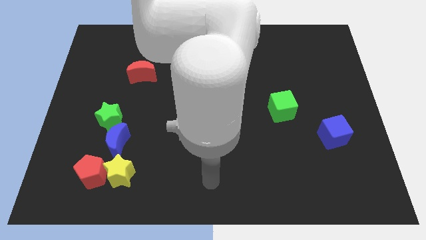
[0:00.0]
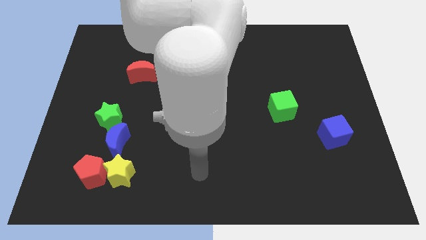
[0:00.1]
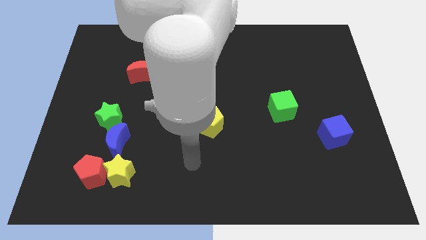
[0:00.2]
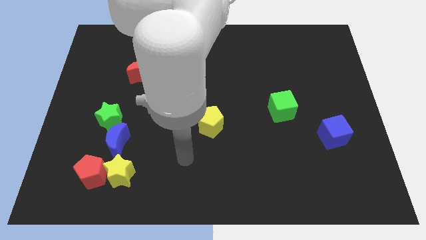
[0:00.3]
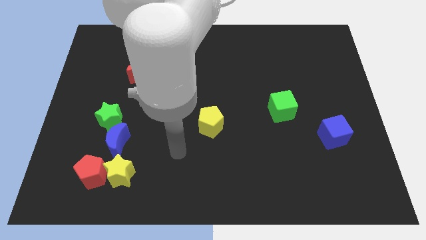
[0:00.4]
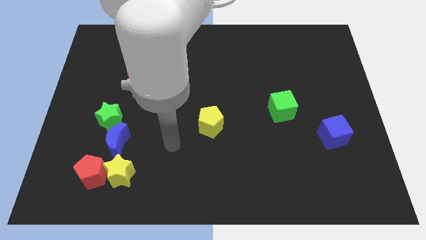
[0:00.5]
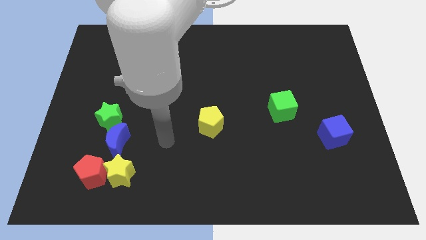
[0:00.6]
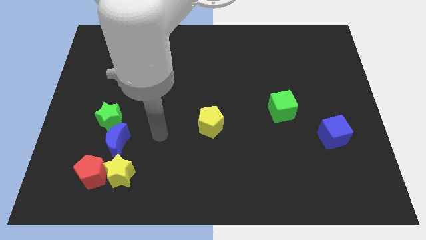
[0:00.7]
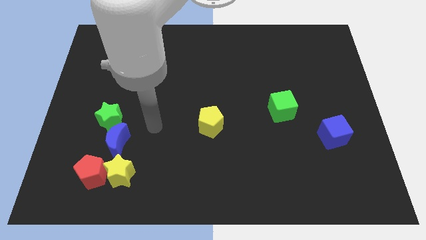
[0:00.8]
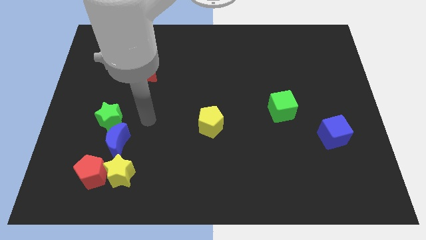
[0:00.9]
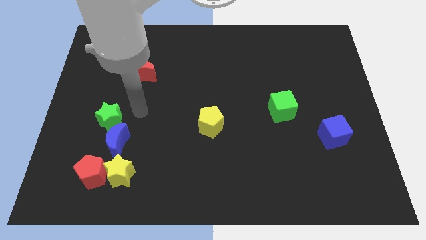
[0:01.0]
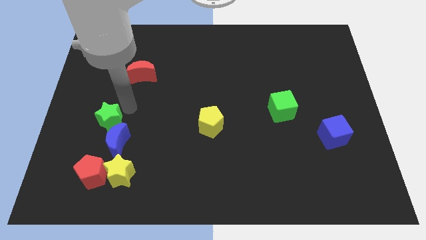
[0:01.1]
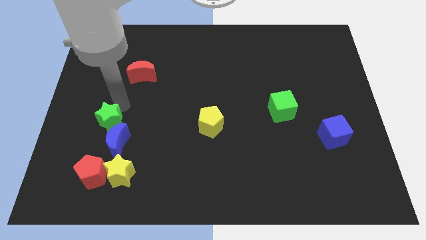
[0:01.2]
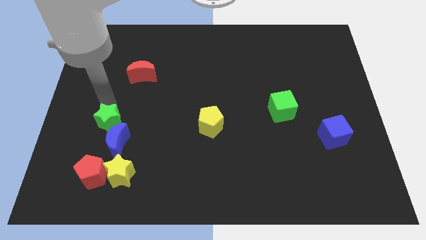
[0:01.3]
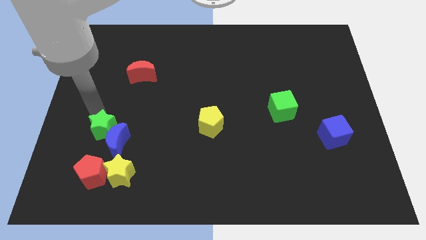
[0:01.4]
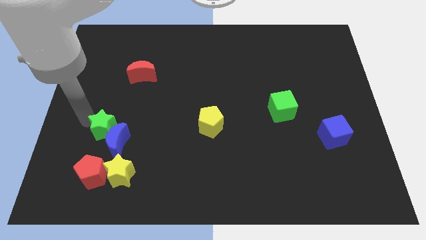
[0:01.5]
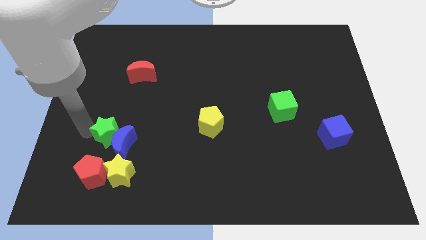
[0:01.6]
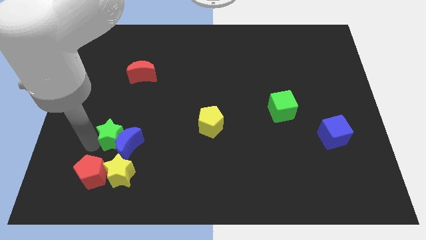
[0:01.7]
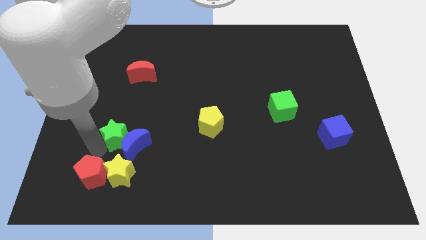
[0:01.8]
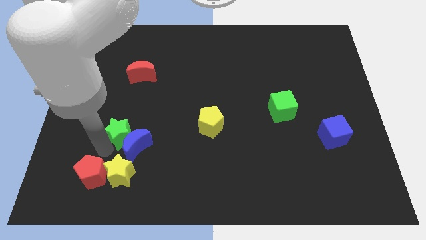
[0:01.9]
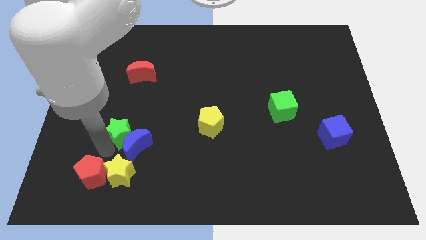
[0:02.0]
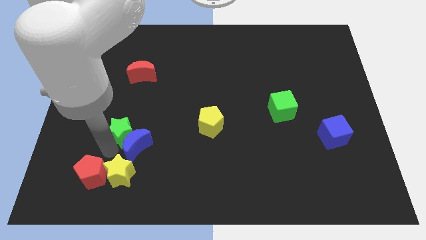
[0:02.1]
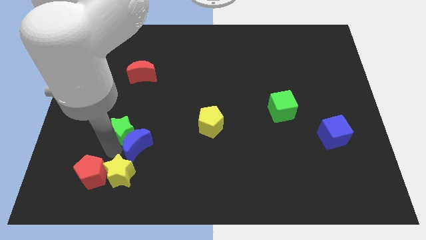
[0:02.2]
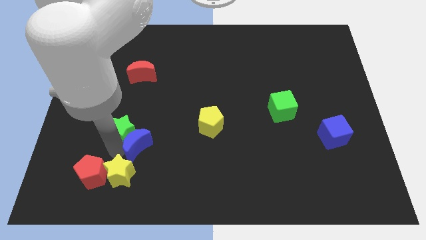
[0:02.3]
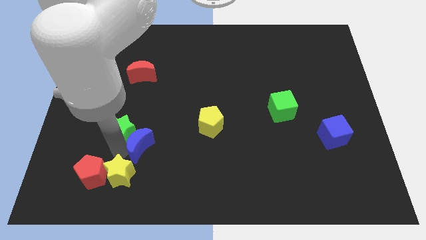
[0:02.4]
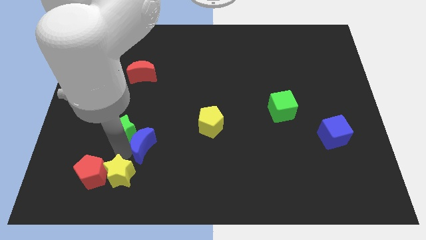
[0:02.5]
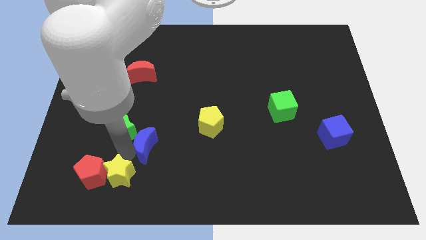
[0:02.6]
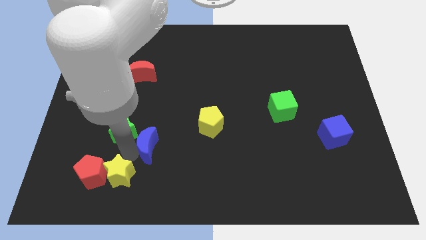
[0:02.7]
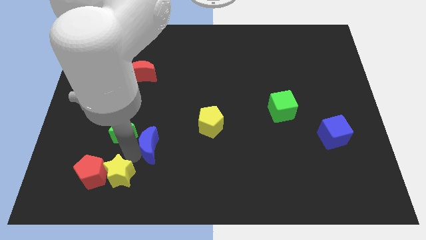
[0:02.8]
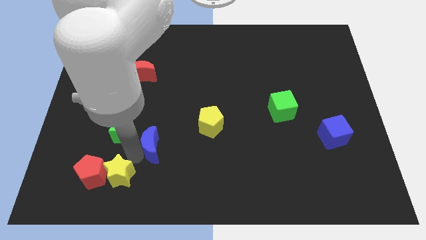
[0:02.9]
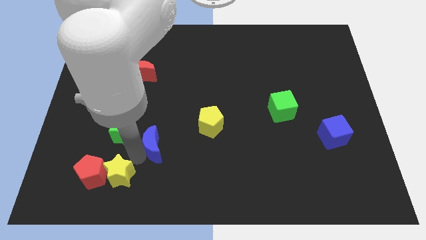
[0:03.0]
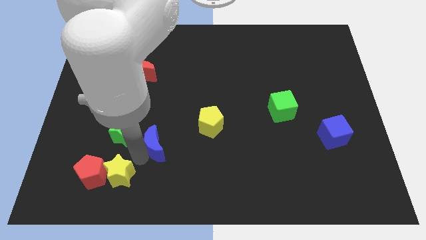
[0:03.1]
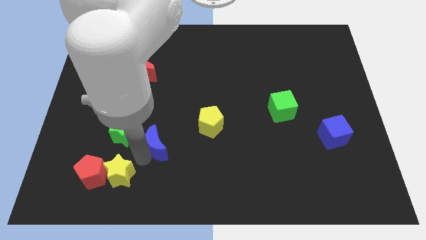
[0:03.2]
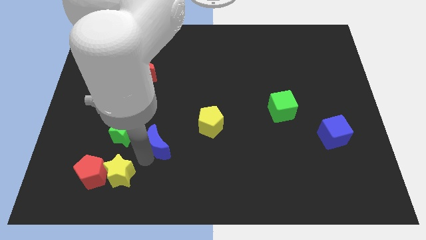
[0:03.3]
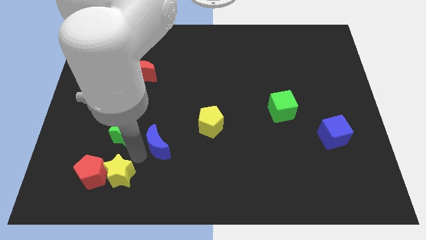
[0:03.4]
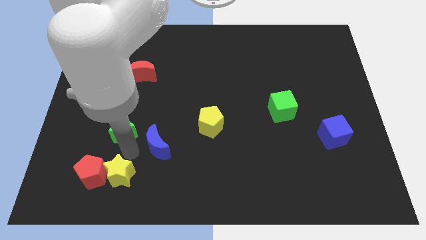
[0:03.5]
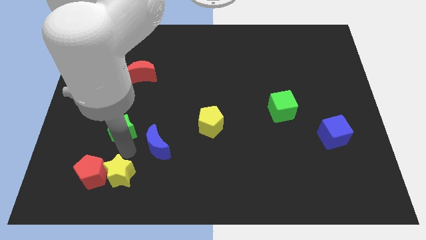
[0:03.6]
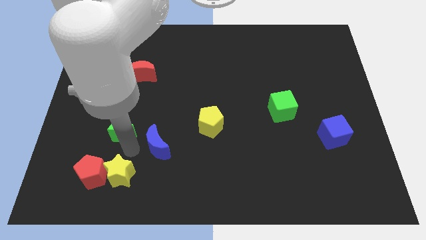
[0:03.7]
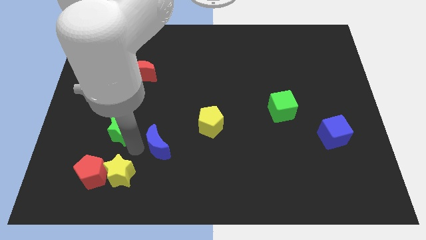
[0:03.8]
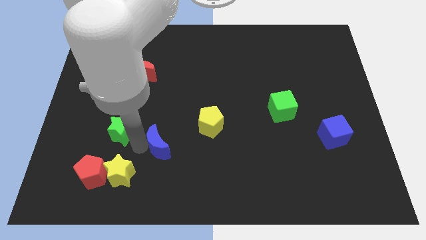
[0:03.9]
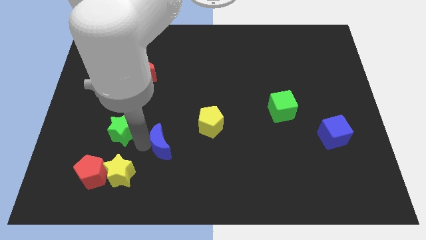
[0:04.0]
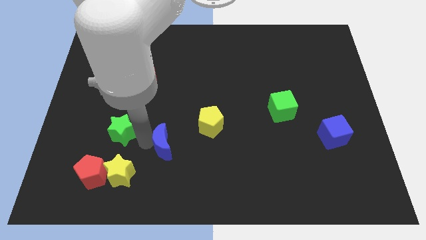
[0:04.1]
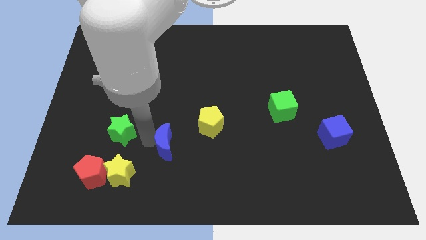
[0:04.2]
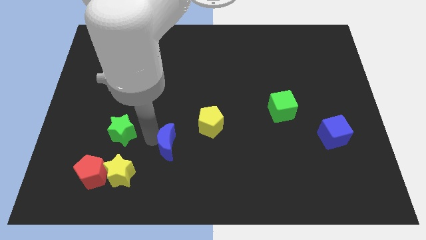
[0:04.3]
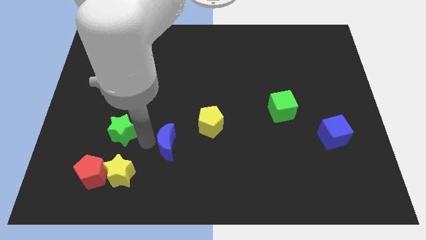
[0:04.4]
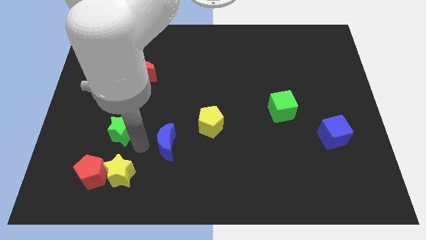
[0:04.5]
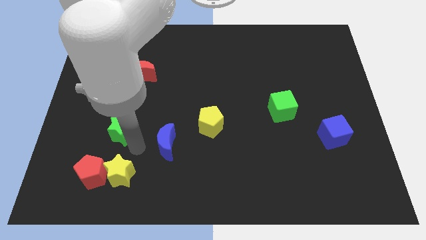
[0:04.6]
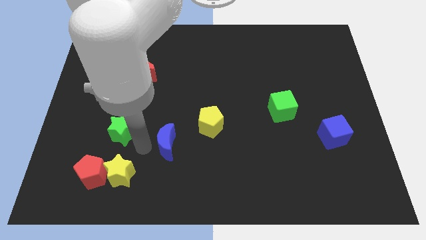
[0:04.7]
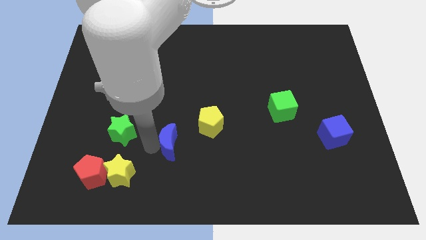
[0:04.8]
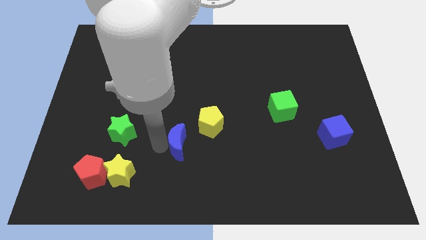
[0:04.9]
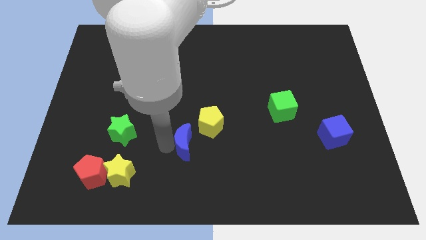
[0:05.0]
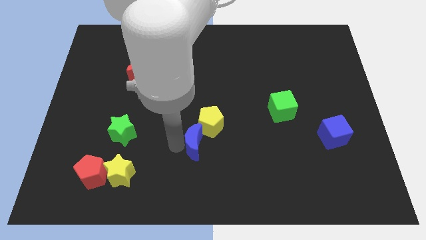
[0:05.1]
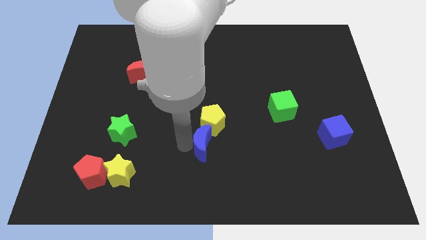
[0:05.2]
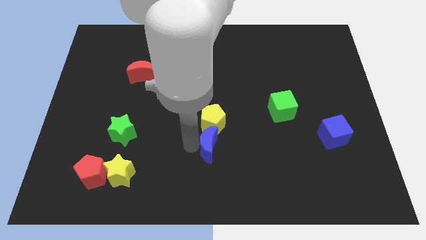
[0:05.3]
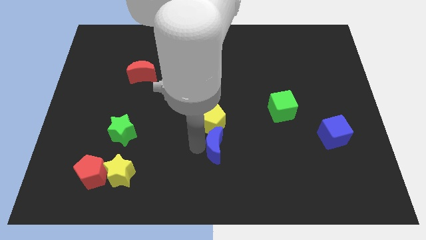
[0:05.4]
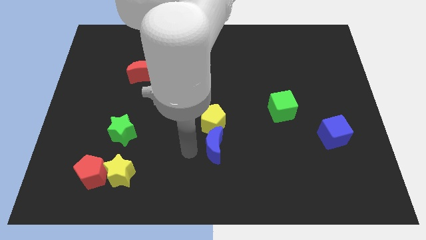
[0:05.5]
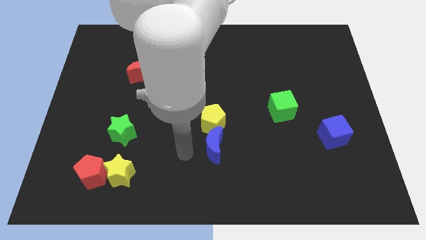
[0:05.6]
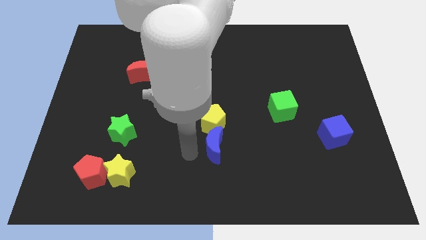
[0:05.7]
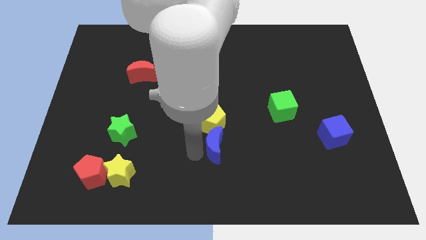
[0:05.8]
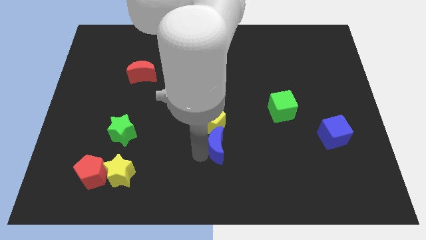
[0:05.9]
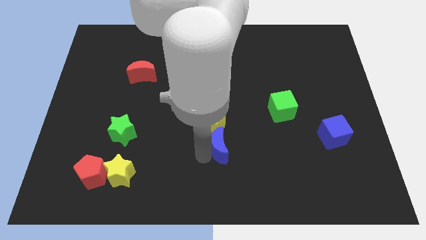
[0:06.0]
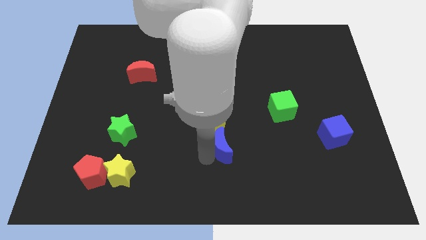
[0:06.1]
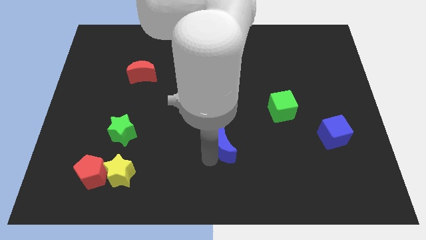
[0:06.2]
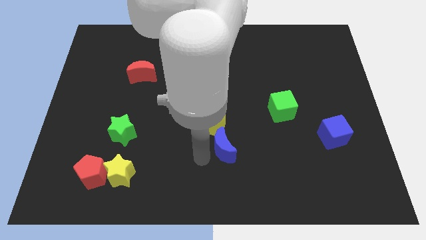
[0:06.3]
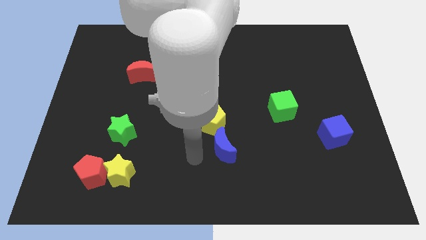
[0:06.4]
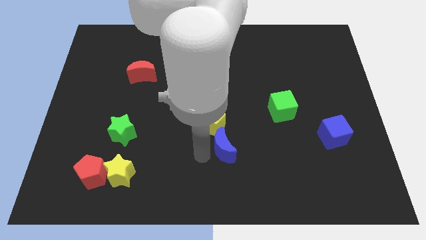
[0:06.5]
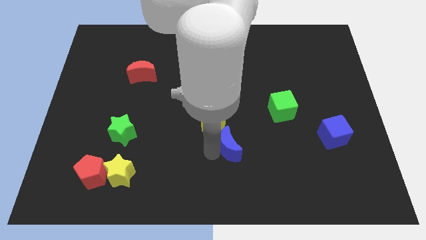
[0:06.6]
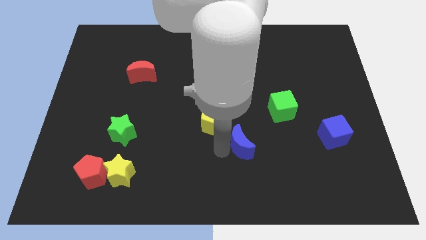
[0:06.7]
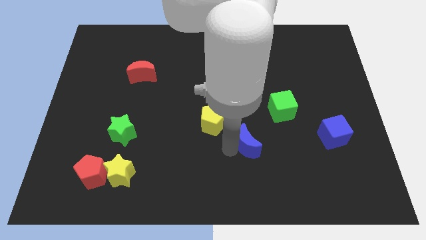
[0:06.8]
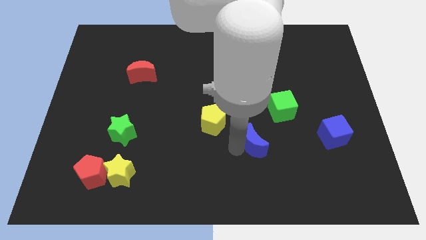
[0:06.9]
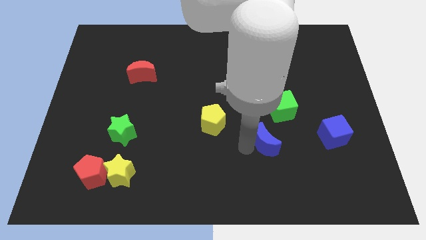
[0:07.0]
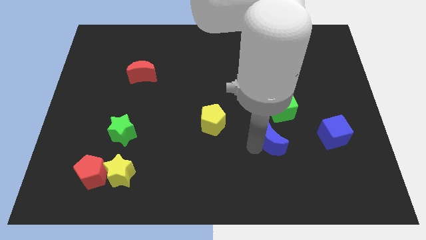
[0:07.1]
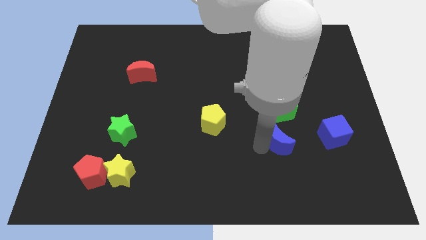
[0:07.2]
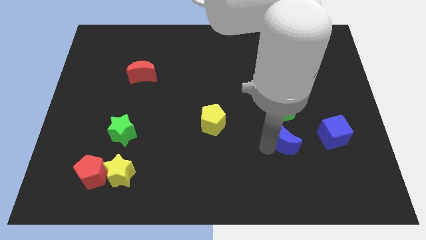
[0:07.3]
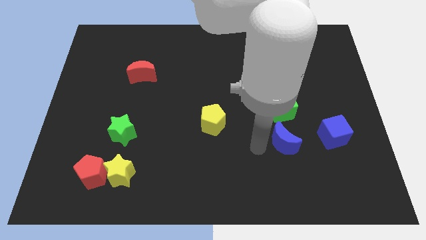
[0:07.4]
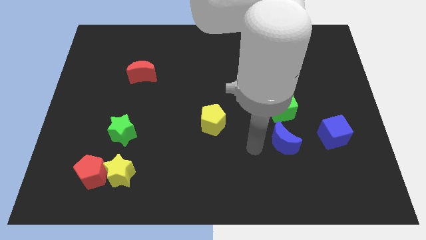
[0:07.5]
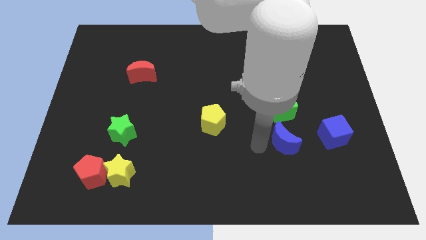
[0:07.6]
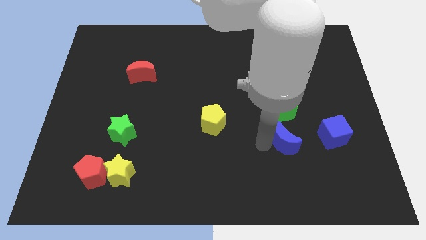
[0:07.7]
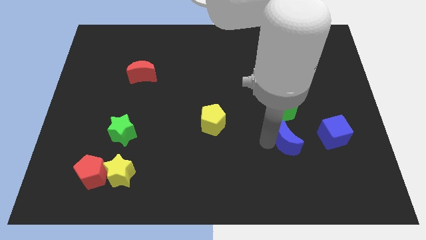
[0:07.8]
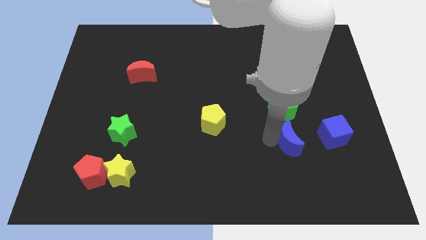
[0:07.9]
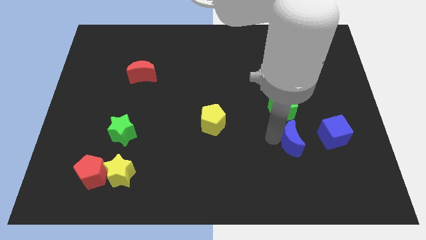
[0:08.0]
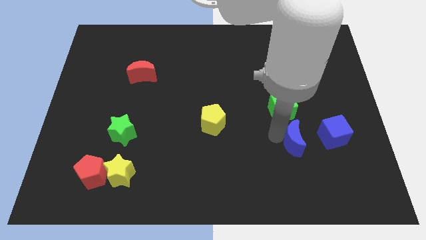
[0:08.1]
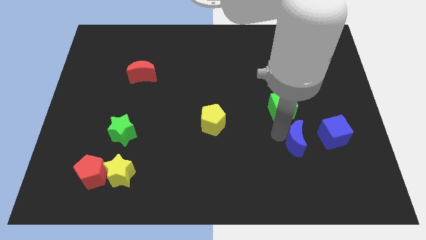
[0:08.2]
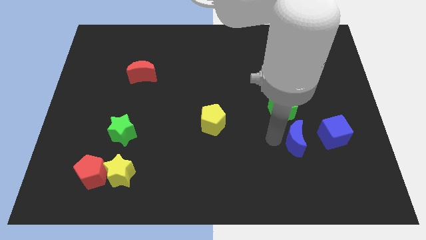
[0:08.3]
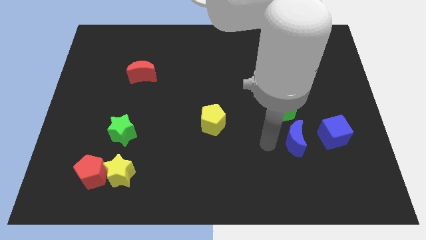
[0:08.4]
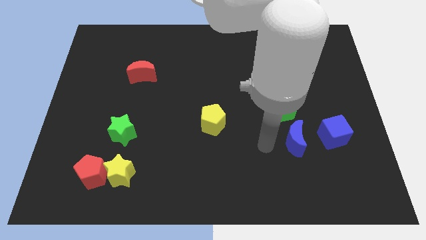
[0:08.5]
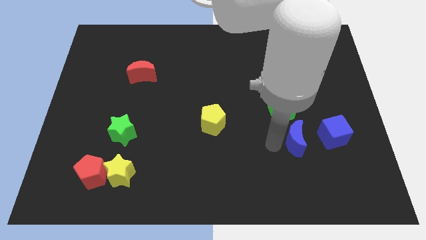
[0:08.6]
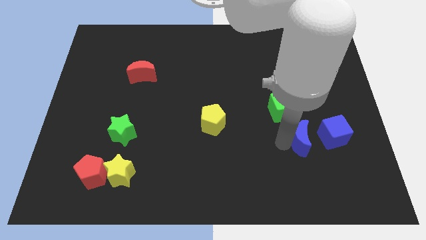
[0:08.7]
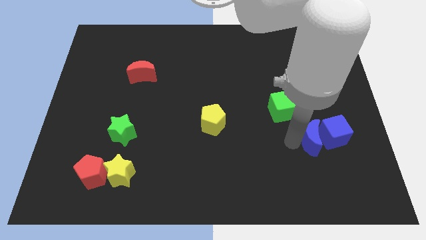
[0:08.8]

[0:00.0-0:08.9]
push the blue moon to the blue cube
